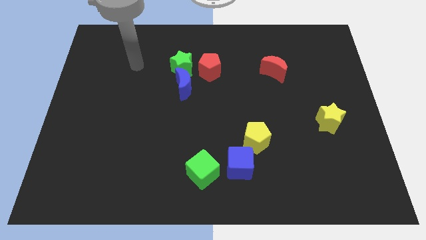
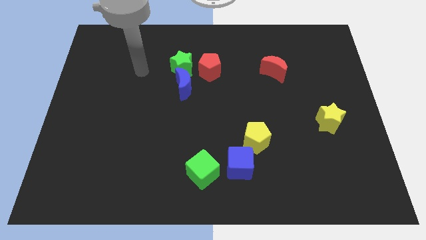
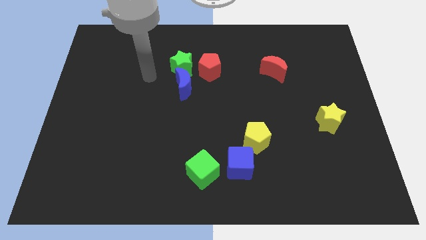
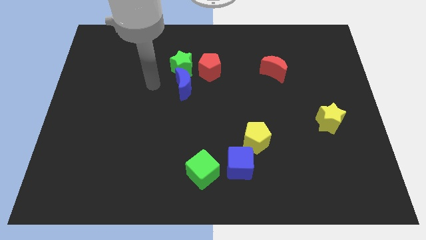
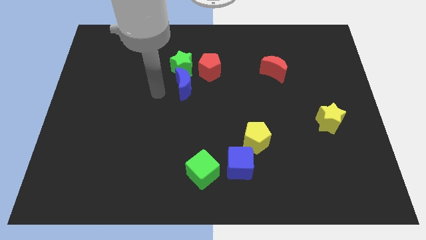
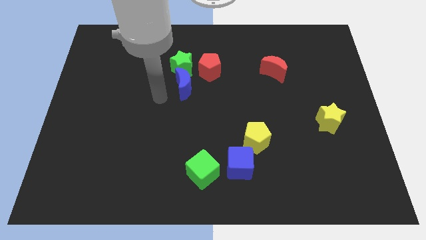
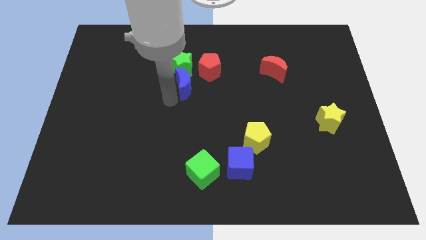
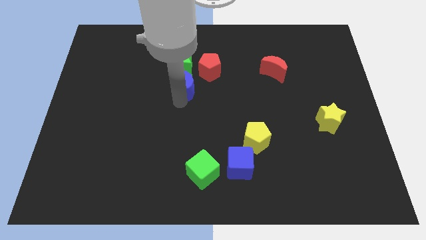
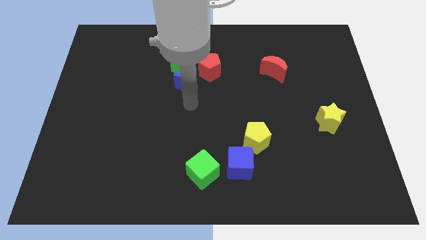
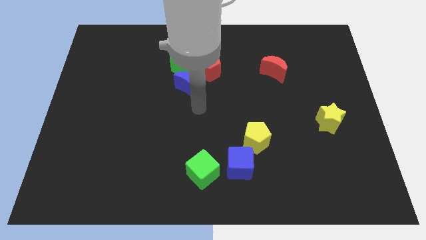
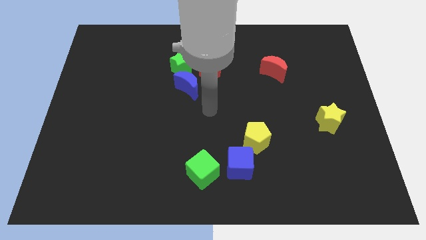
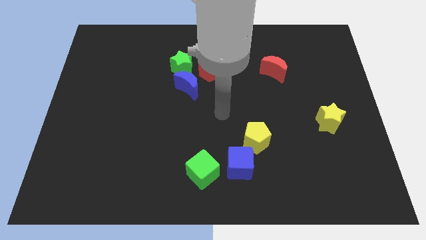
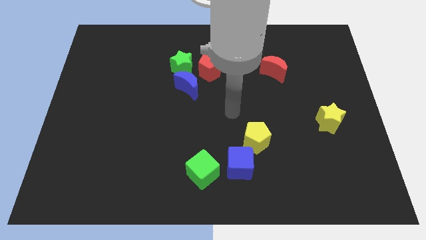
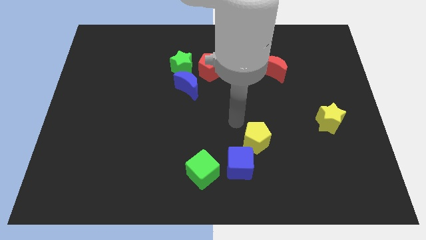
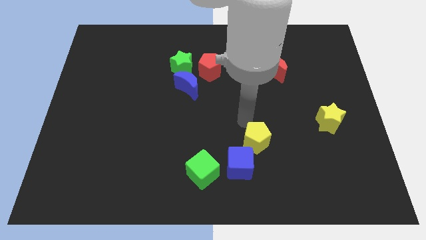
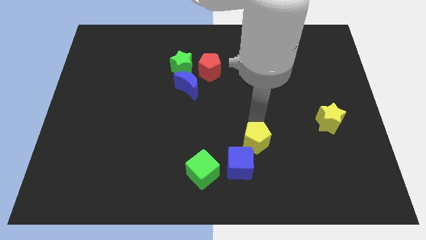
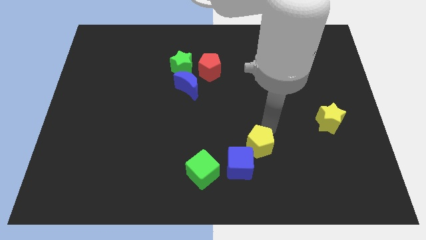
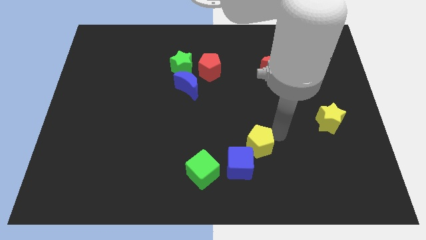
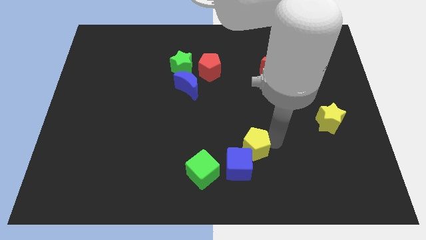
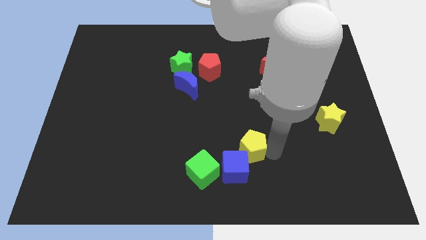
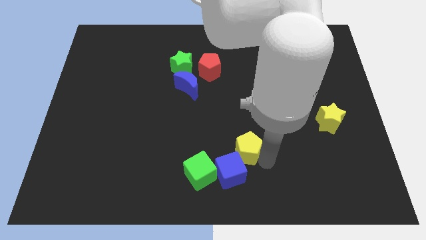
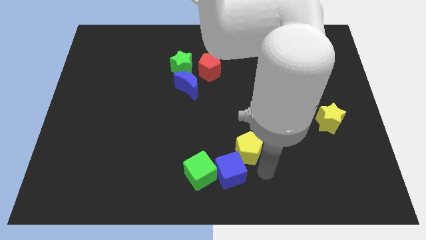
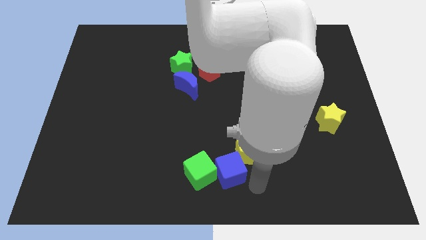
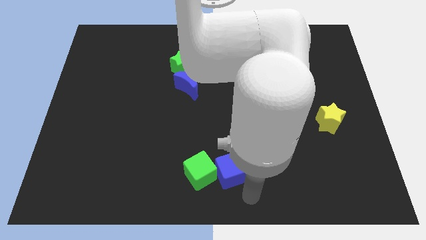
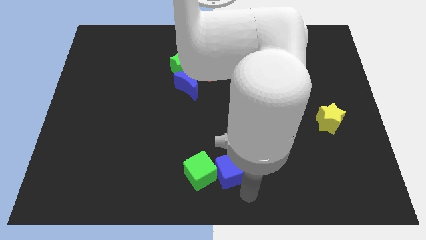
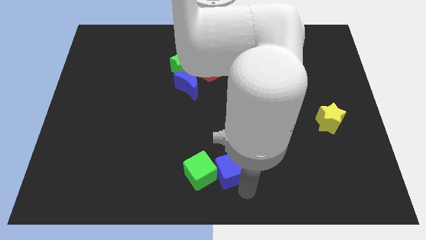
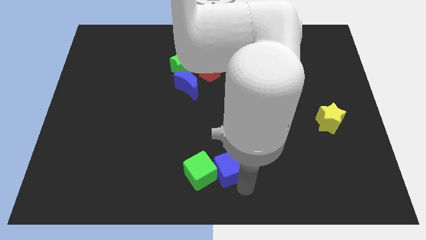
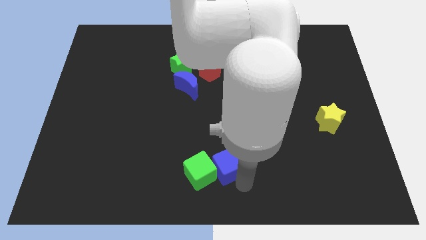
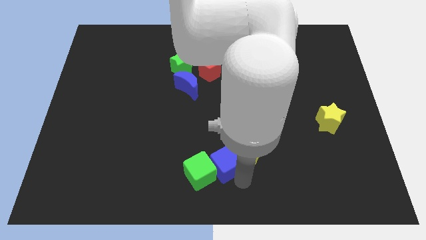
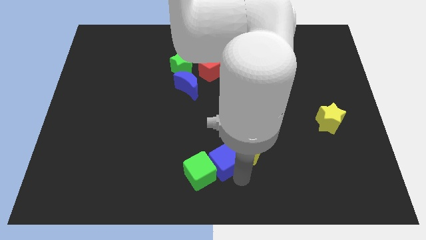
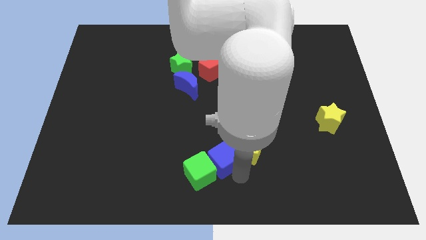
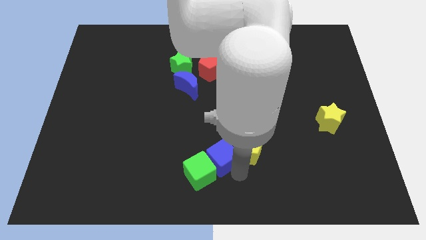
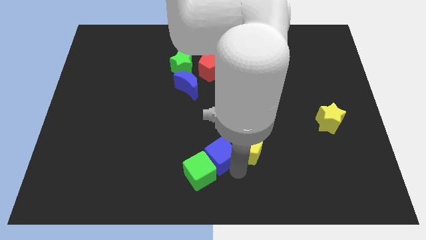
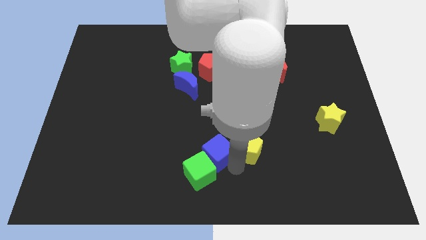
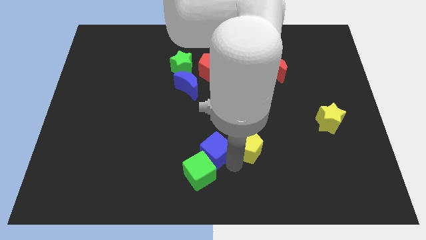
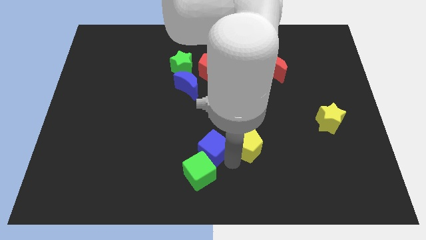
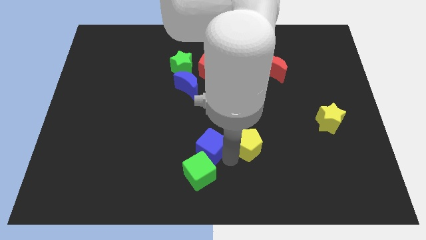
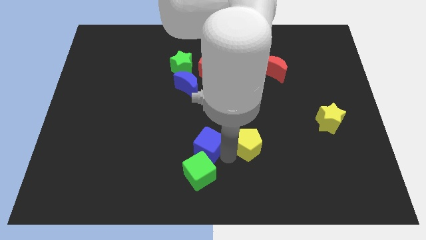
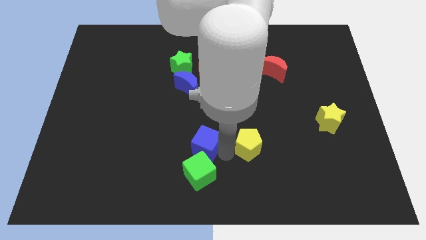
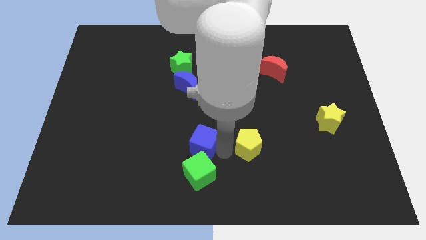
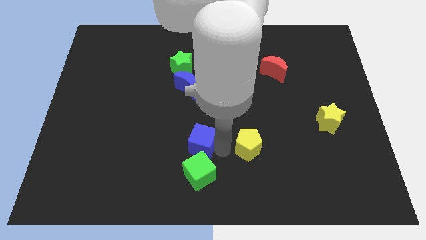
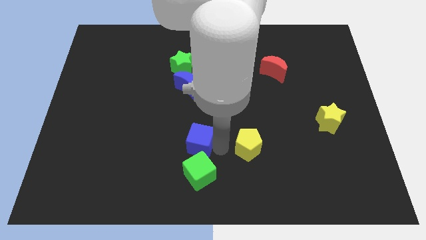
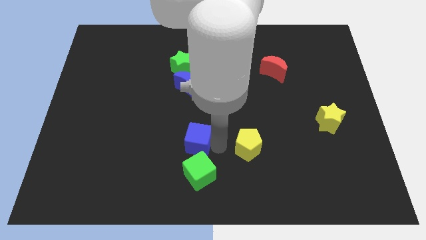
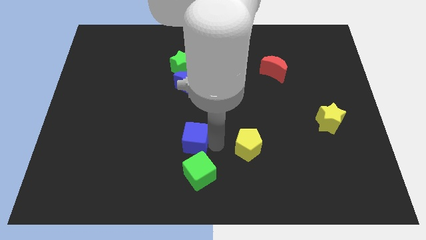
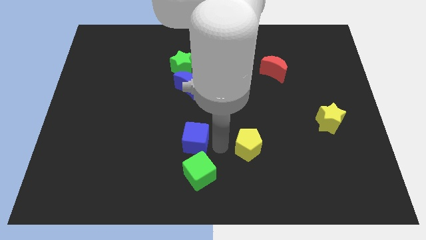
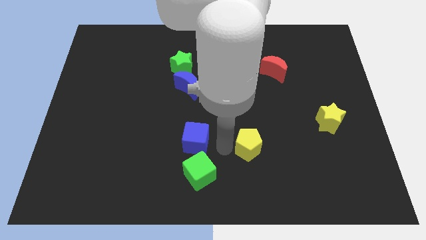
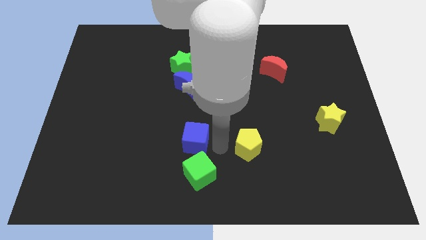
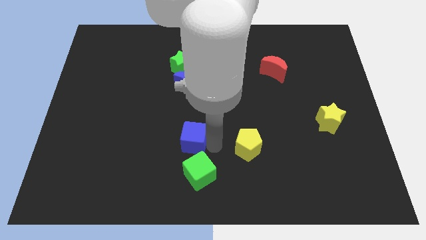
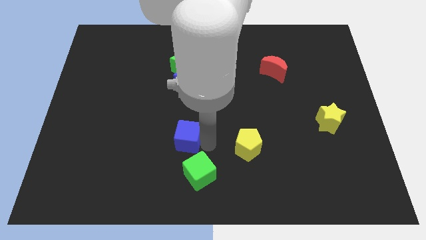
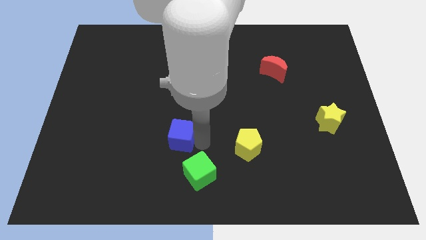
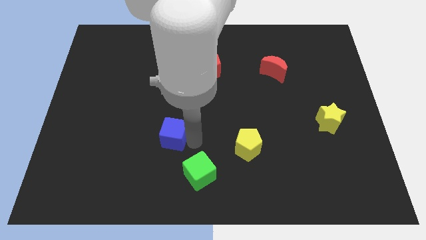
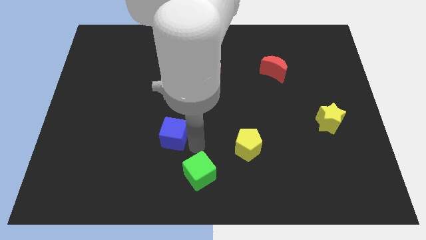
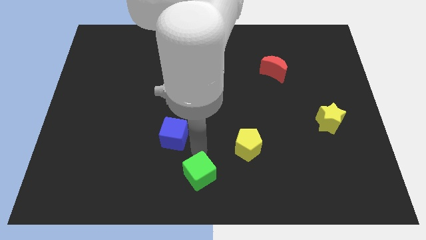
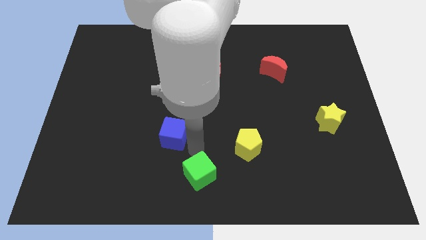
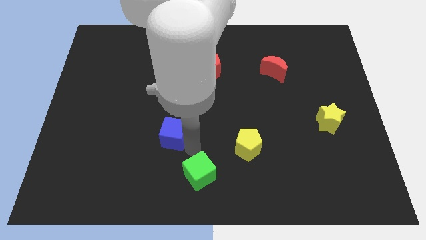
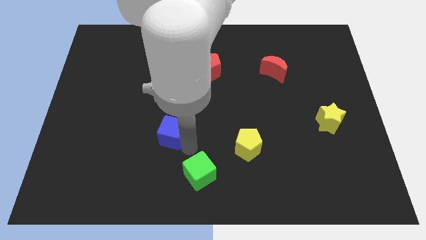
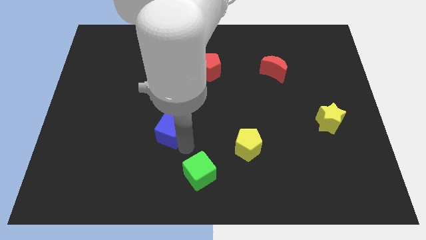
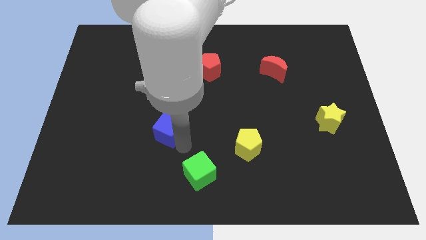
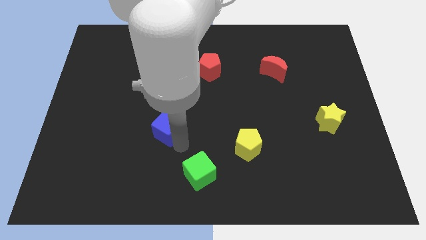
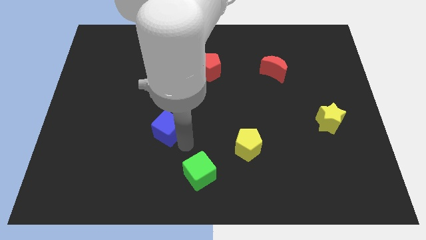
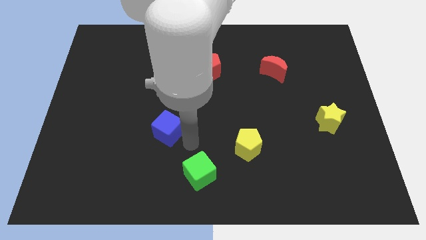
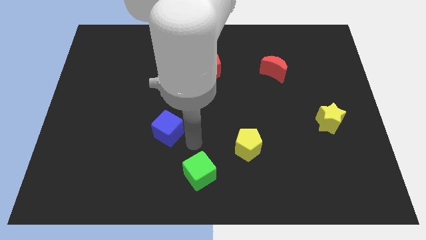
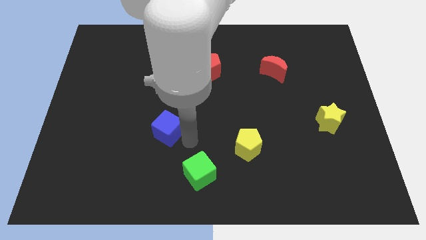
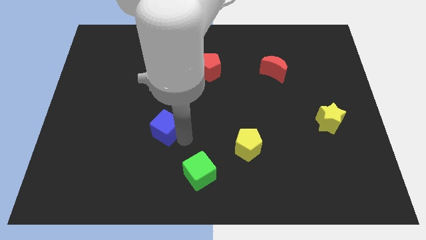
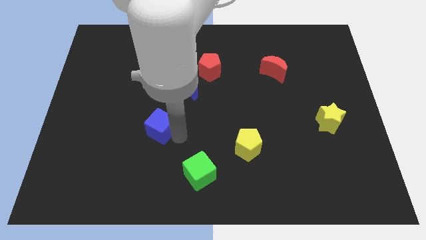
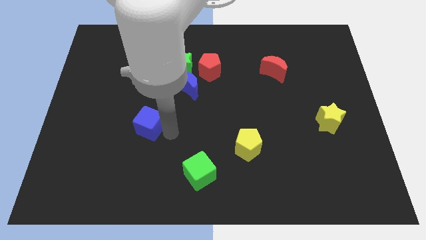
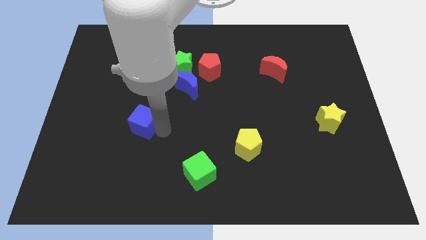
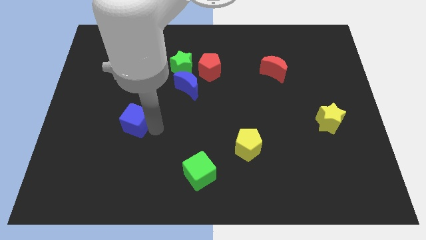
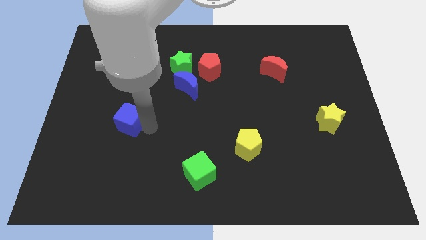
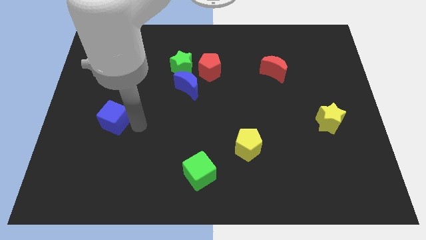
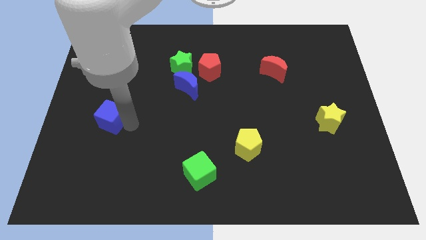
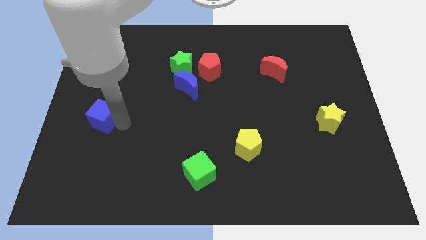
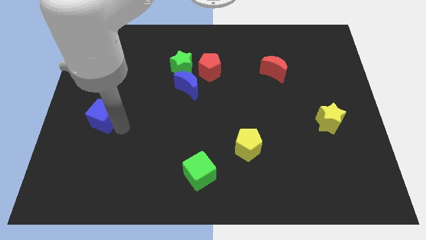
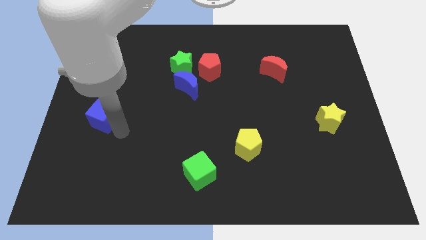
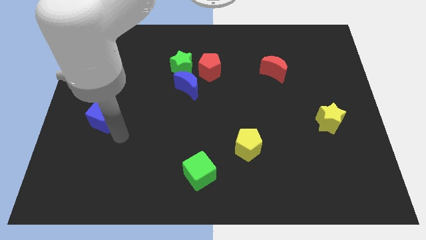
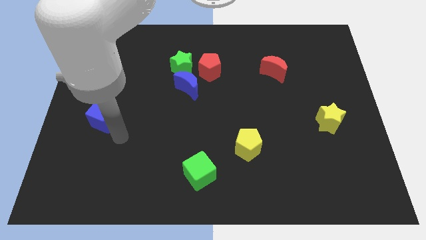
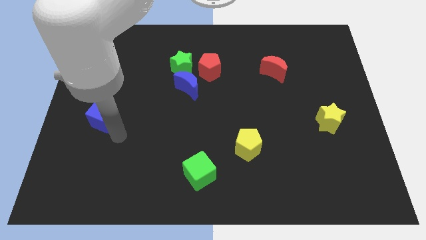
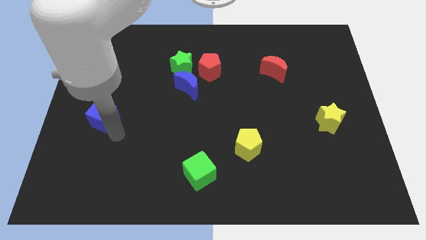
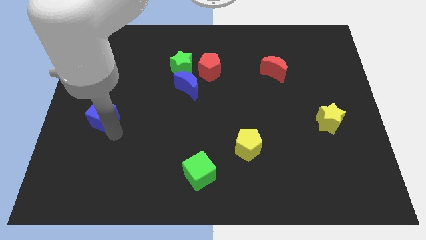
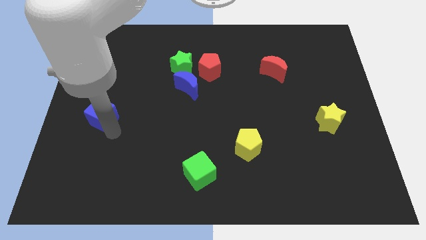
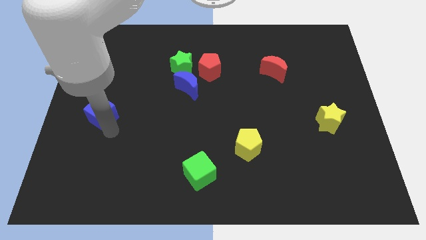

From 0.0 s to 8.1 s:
move the blue cube to the left side of the board
